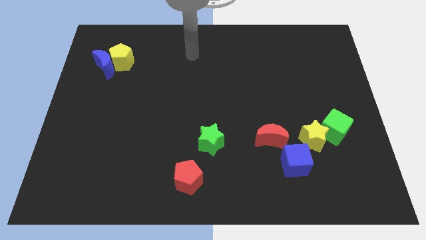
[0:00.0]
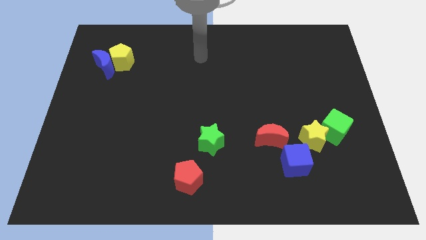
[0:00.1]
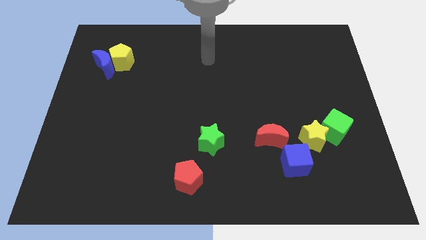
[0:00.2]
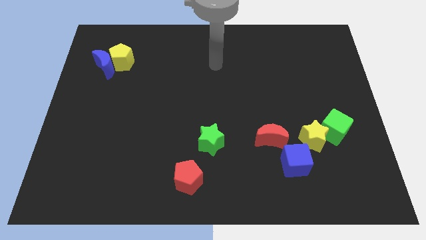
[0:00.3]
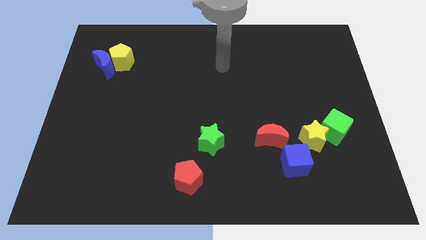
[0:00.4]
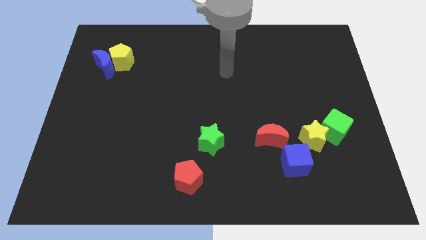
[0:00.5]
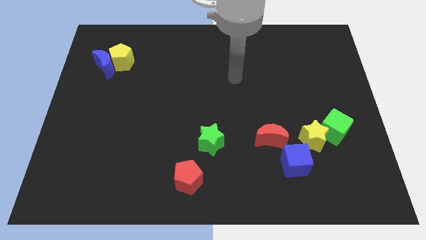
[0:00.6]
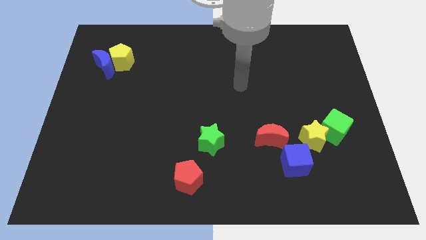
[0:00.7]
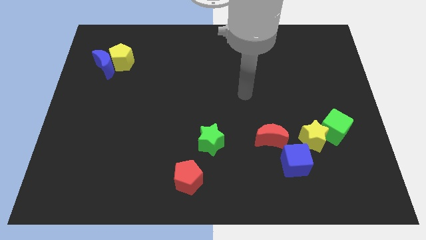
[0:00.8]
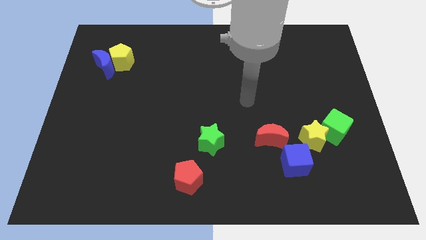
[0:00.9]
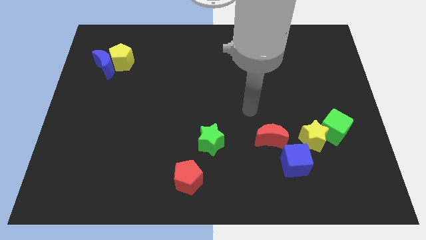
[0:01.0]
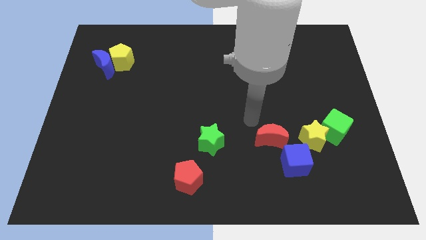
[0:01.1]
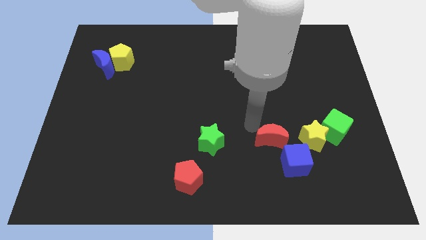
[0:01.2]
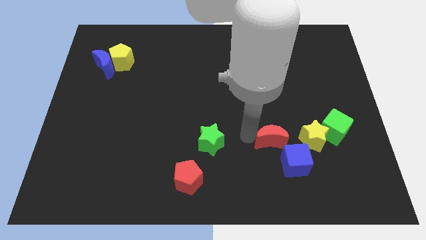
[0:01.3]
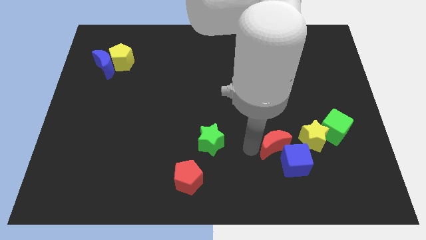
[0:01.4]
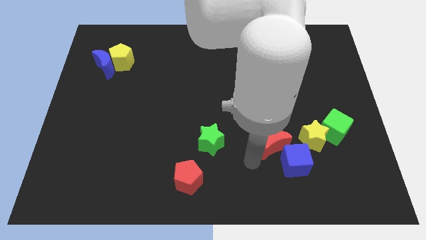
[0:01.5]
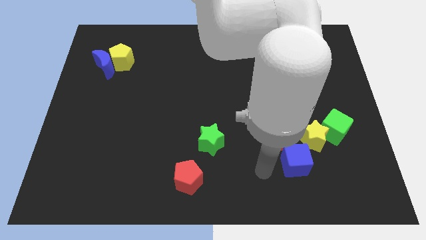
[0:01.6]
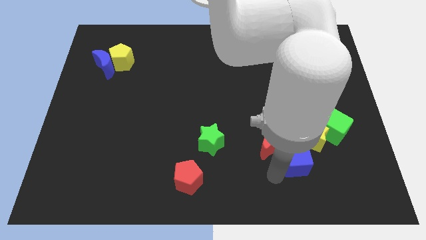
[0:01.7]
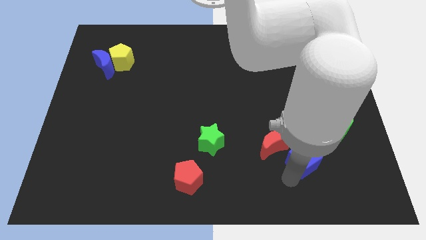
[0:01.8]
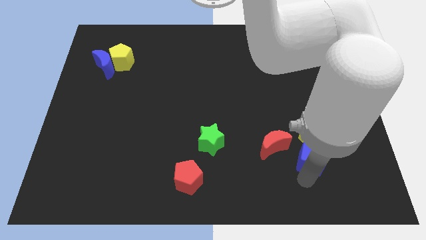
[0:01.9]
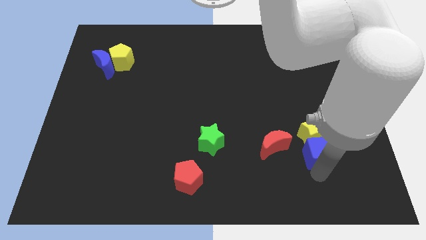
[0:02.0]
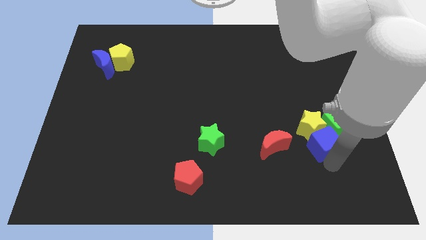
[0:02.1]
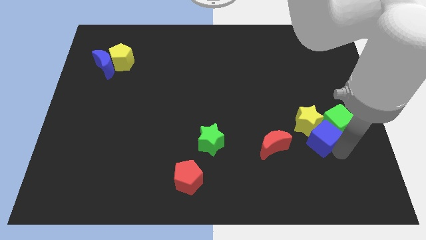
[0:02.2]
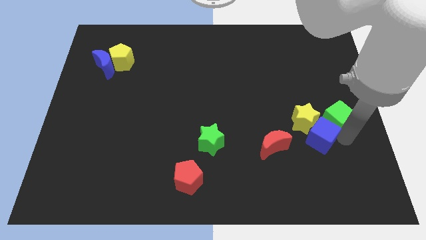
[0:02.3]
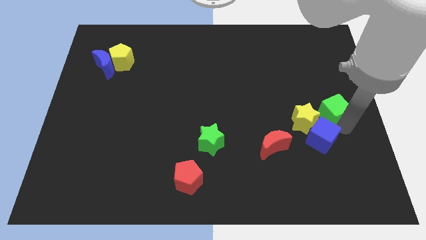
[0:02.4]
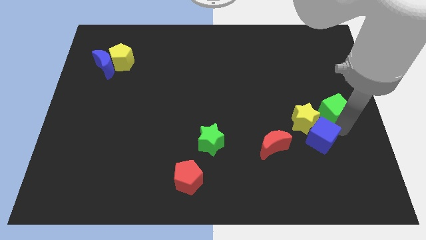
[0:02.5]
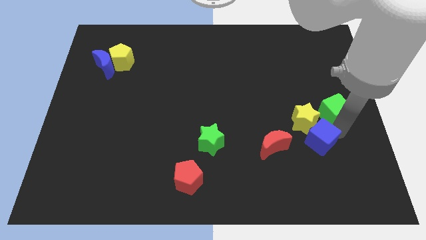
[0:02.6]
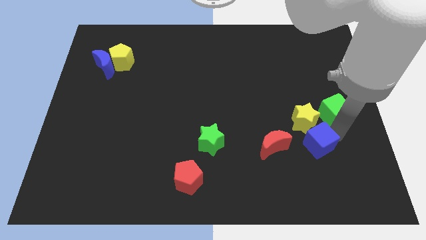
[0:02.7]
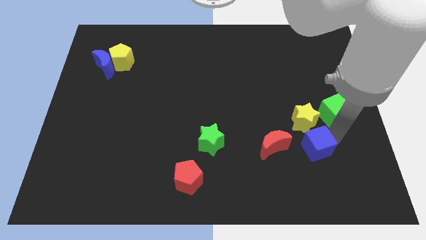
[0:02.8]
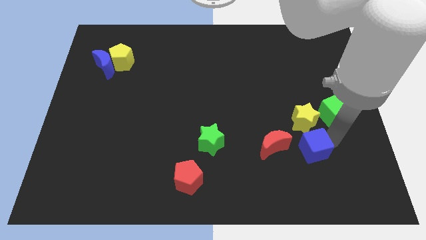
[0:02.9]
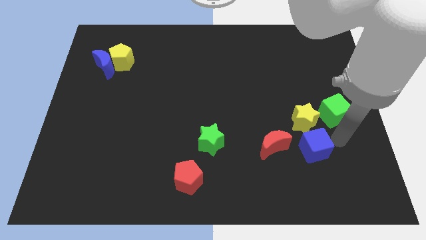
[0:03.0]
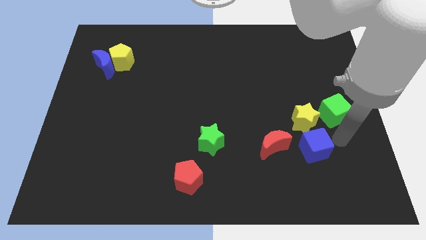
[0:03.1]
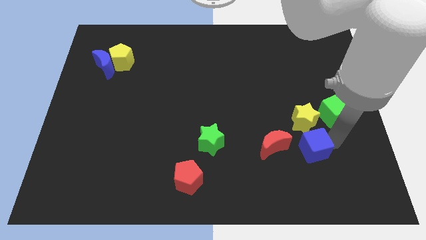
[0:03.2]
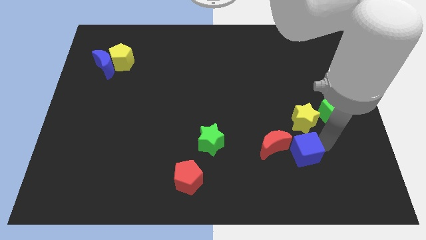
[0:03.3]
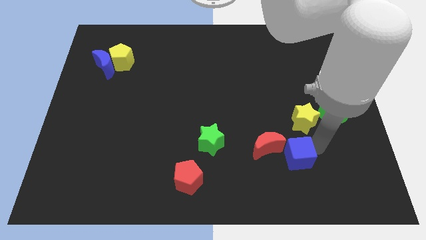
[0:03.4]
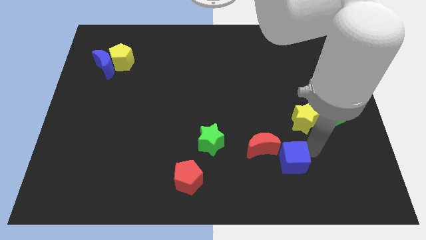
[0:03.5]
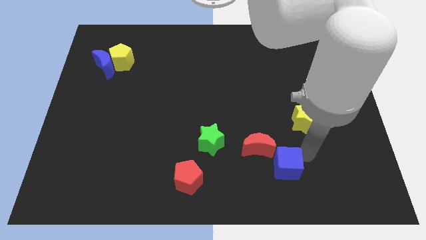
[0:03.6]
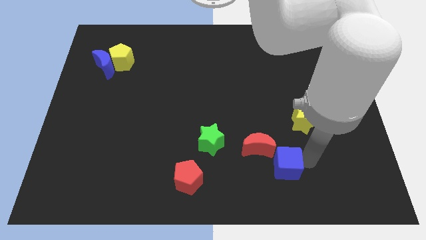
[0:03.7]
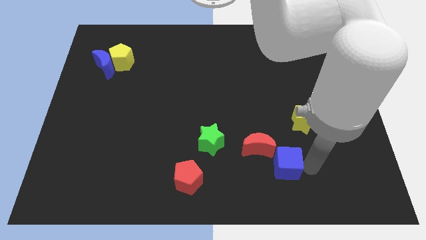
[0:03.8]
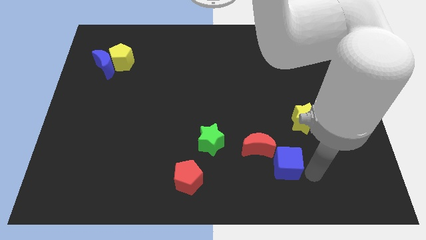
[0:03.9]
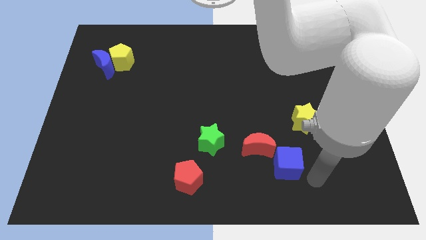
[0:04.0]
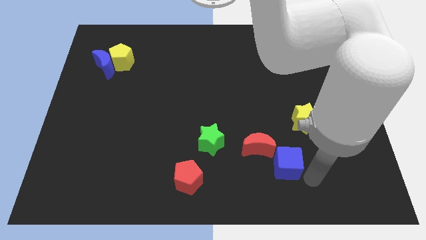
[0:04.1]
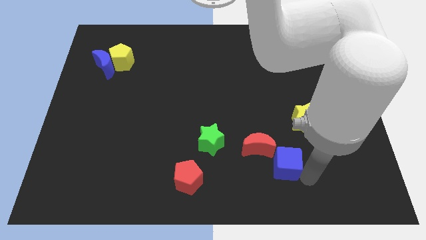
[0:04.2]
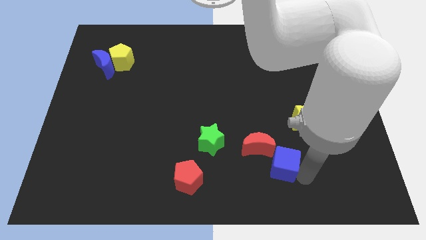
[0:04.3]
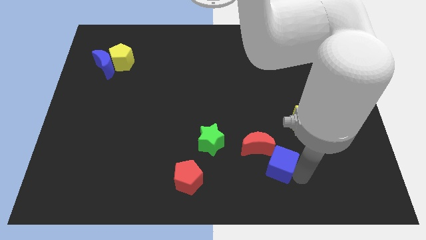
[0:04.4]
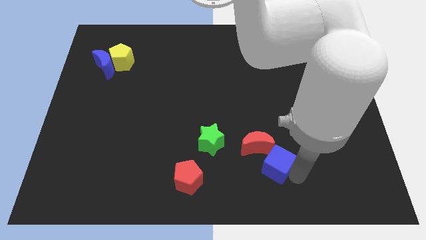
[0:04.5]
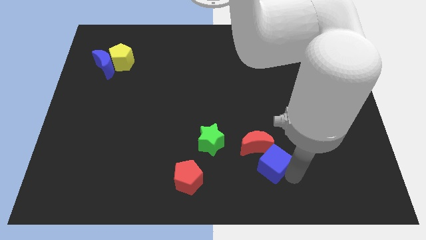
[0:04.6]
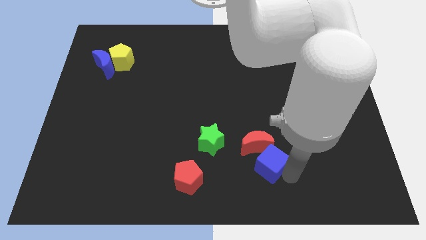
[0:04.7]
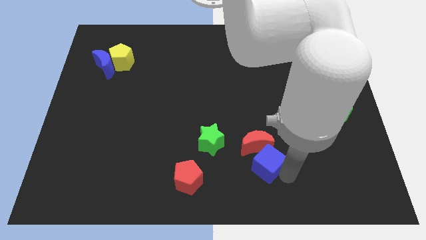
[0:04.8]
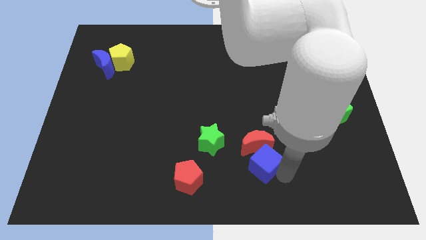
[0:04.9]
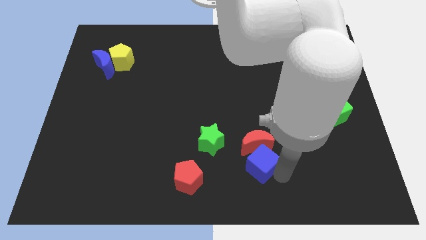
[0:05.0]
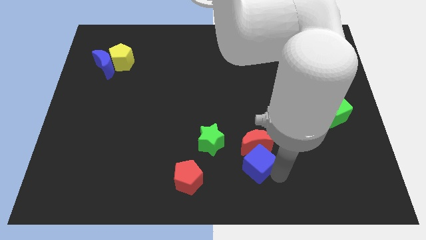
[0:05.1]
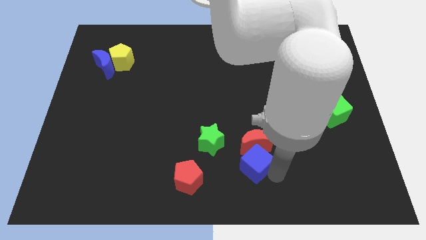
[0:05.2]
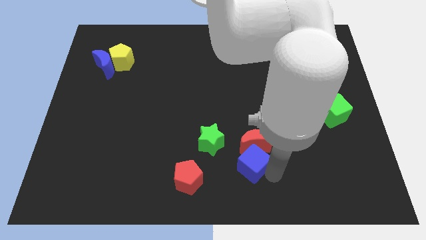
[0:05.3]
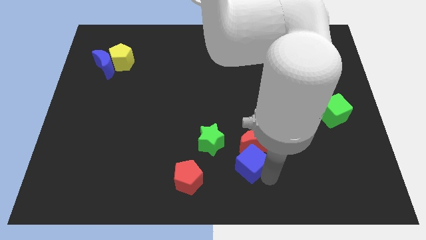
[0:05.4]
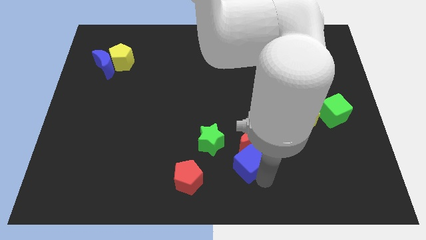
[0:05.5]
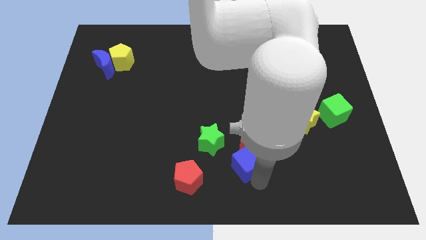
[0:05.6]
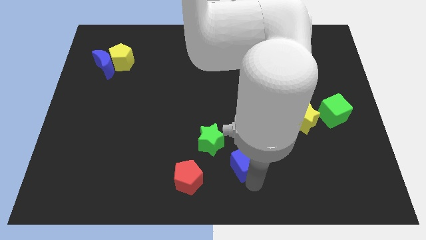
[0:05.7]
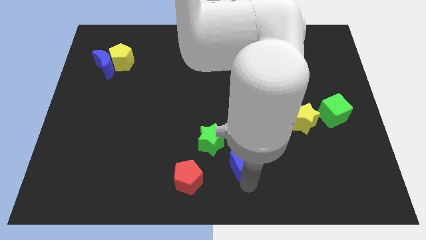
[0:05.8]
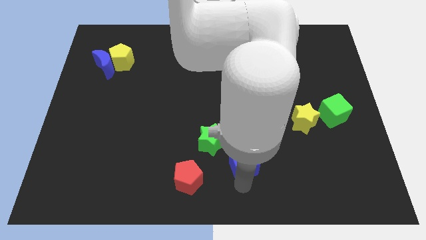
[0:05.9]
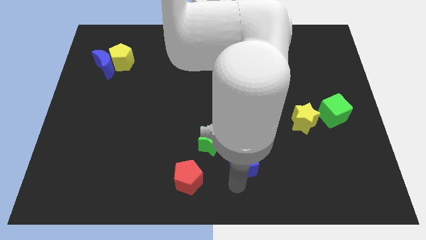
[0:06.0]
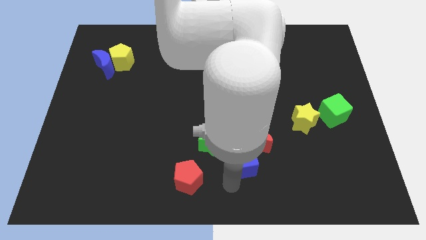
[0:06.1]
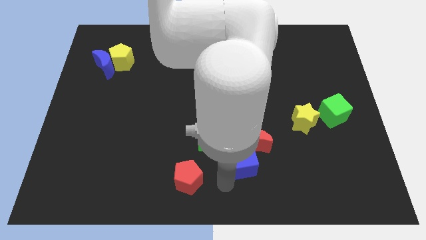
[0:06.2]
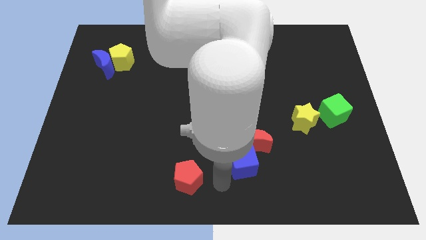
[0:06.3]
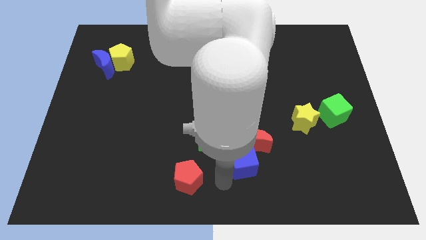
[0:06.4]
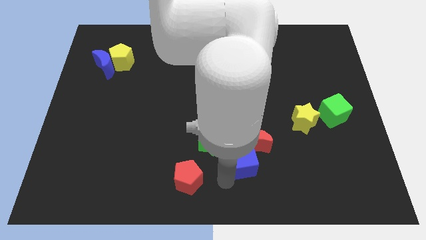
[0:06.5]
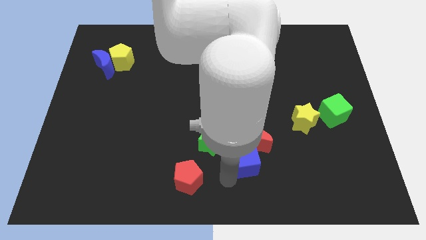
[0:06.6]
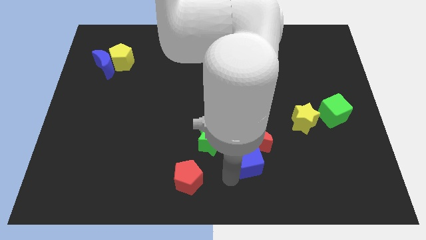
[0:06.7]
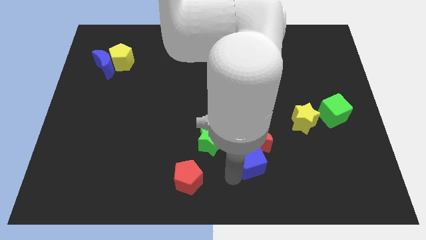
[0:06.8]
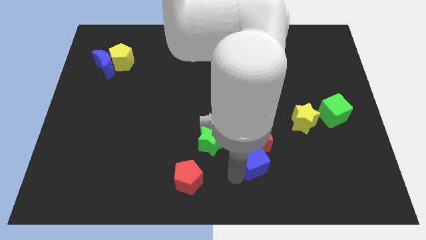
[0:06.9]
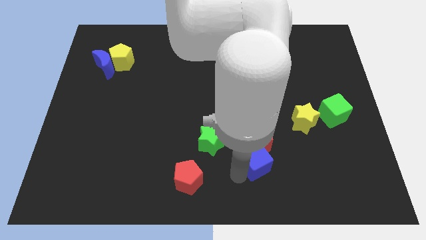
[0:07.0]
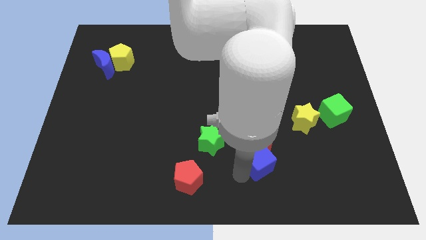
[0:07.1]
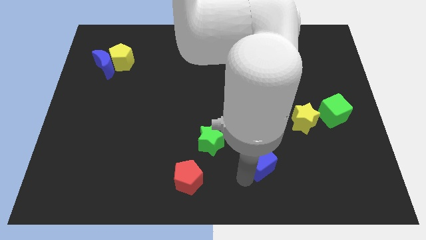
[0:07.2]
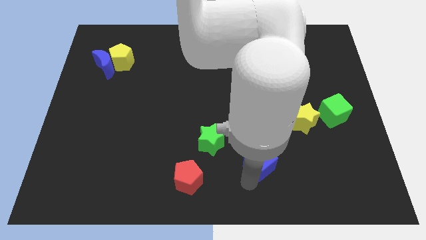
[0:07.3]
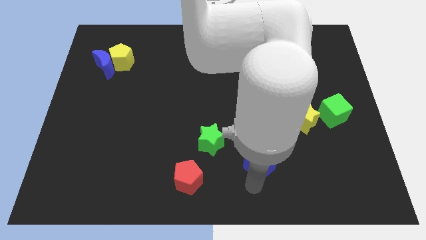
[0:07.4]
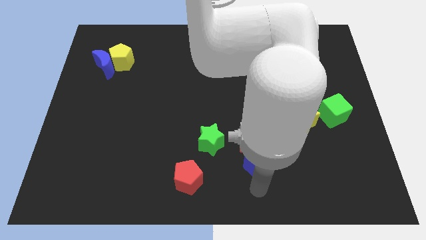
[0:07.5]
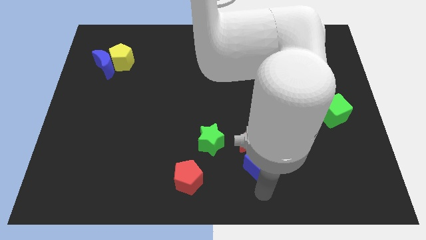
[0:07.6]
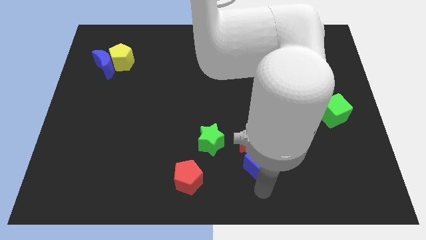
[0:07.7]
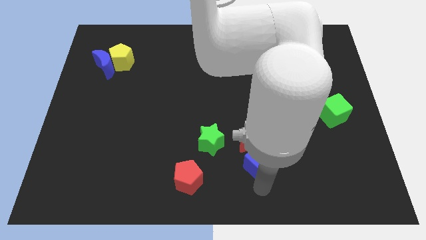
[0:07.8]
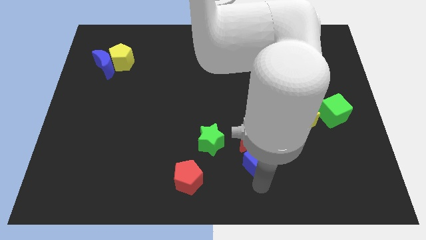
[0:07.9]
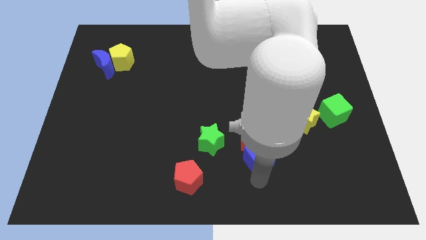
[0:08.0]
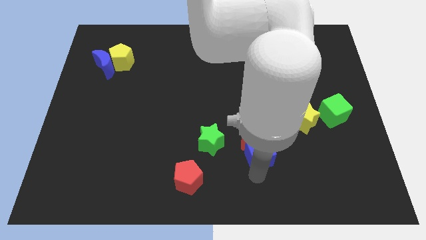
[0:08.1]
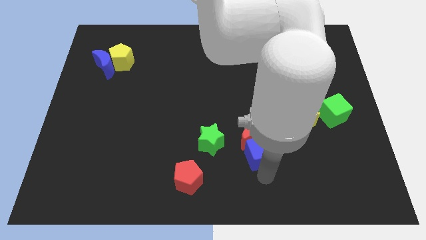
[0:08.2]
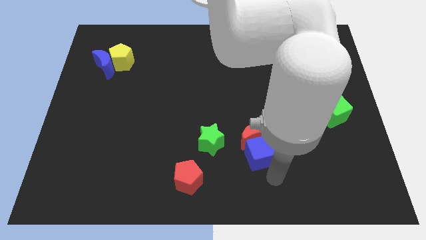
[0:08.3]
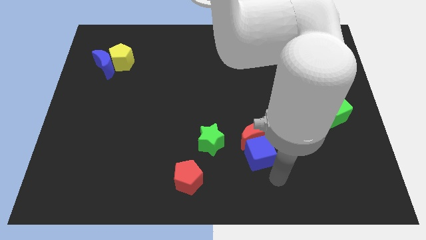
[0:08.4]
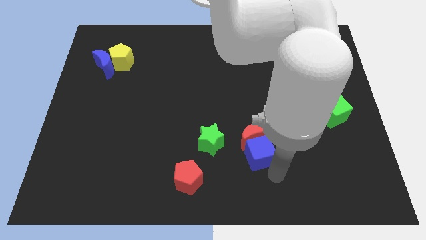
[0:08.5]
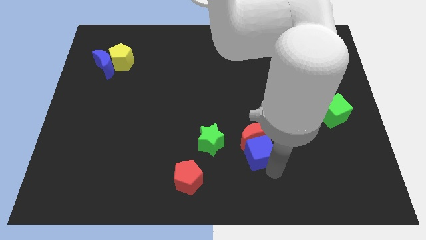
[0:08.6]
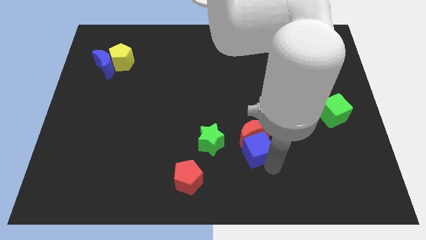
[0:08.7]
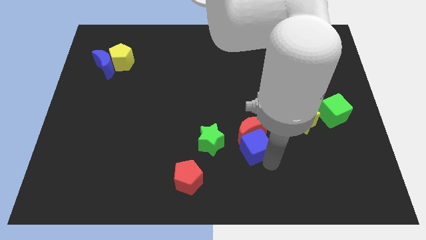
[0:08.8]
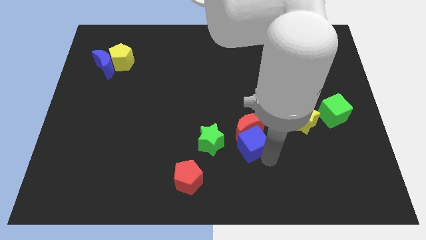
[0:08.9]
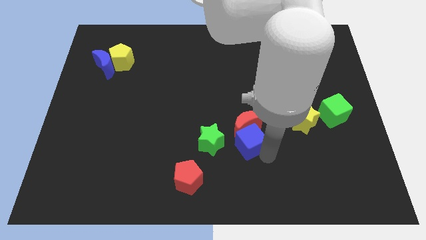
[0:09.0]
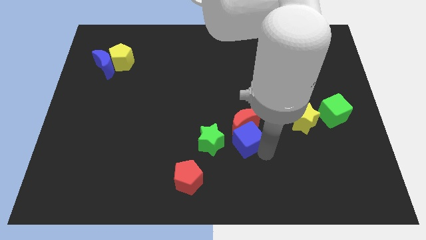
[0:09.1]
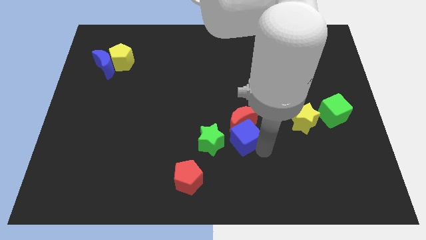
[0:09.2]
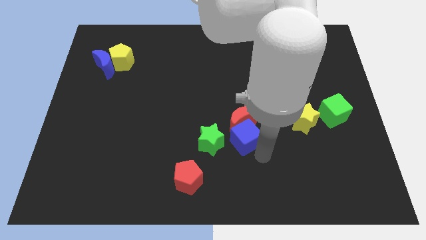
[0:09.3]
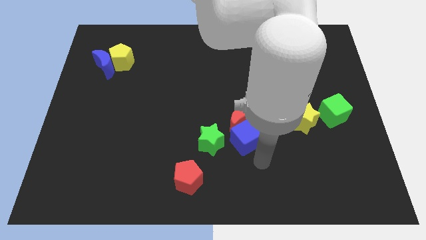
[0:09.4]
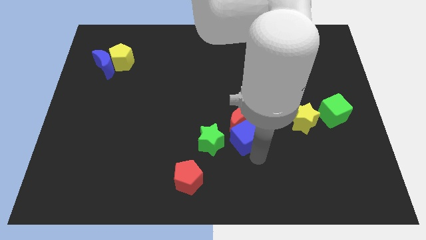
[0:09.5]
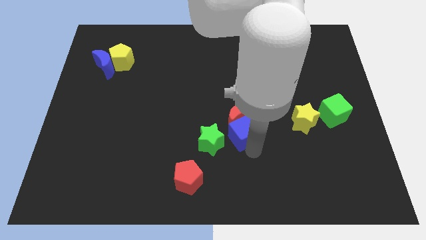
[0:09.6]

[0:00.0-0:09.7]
move the blue cube to the top right of the green star
